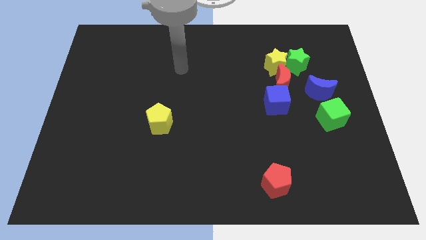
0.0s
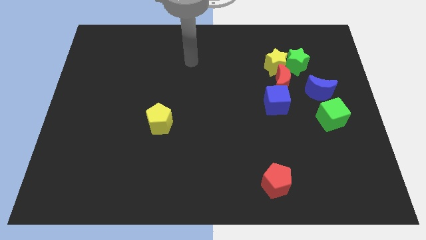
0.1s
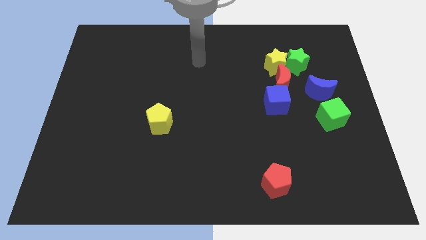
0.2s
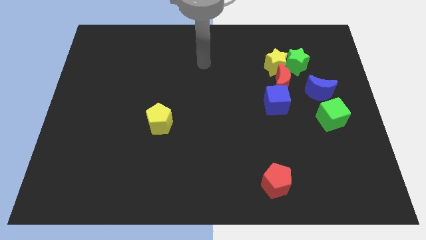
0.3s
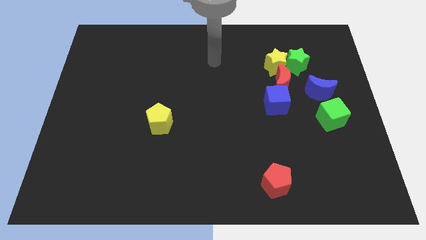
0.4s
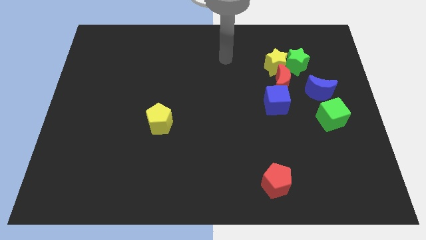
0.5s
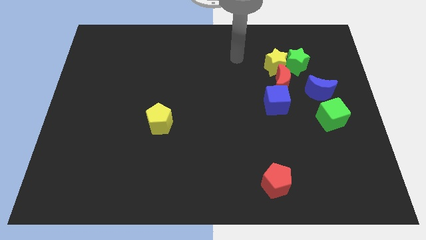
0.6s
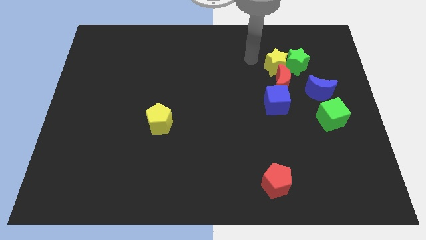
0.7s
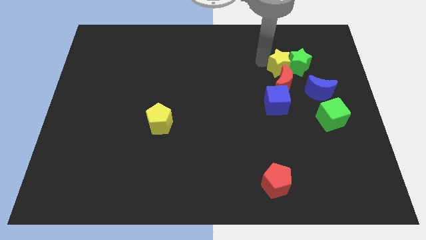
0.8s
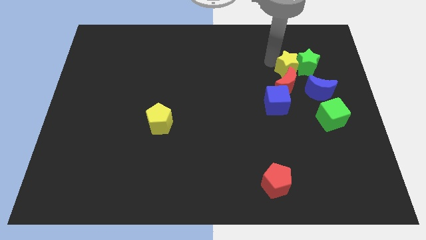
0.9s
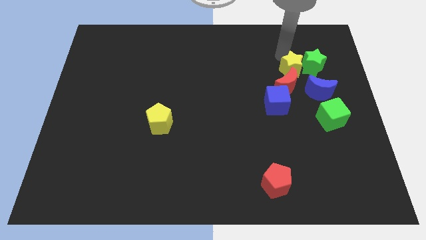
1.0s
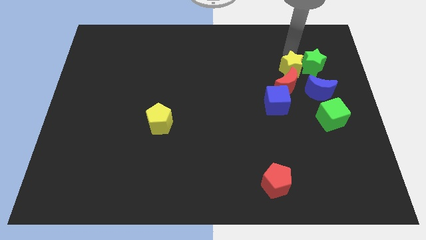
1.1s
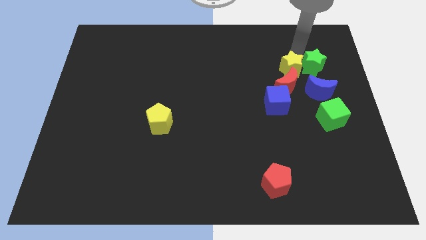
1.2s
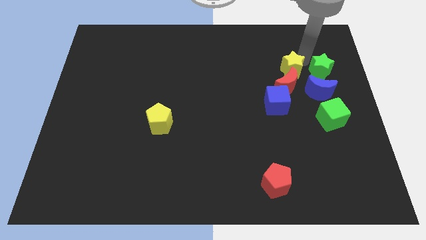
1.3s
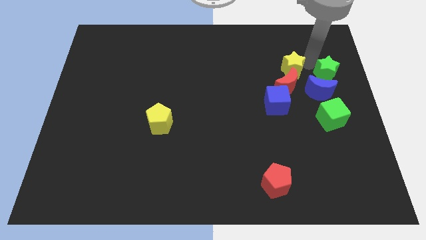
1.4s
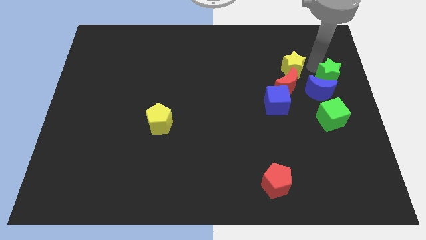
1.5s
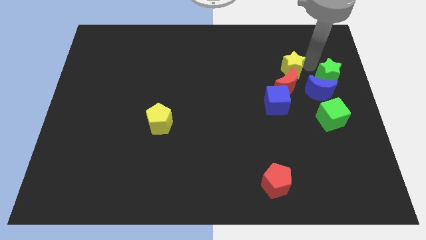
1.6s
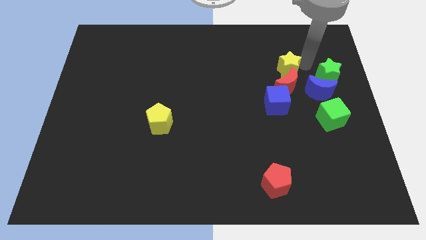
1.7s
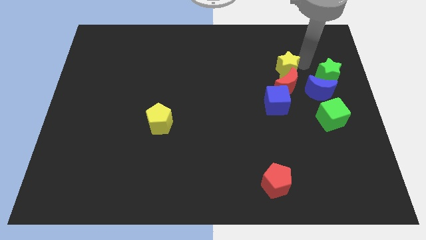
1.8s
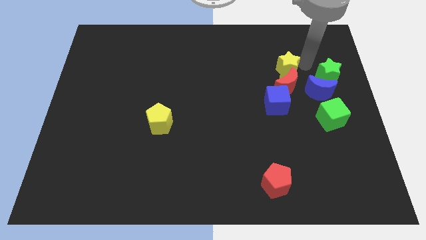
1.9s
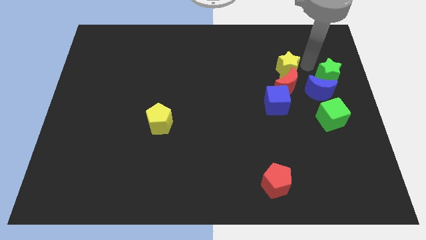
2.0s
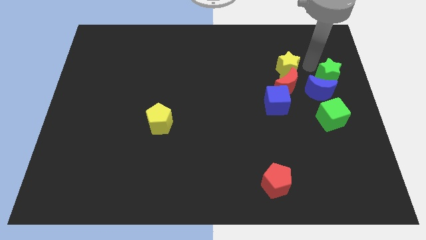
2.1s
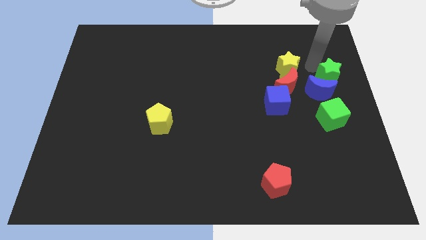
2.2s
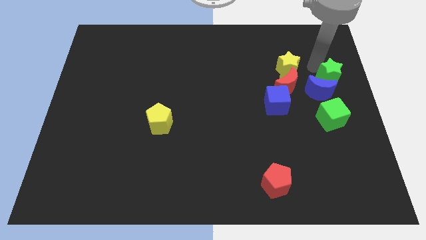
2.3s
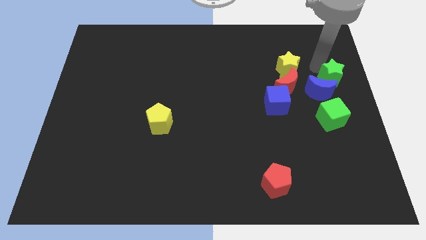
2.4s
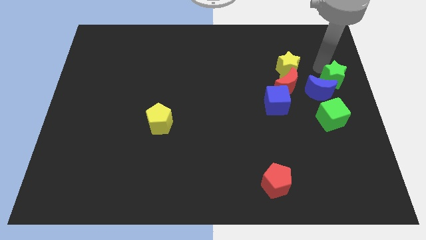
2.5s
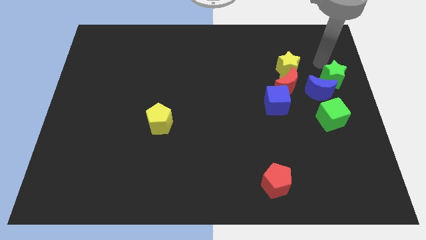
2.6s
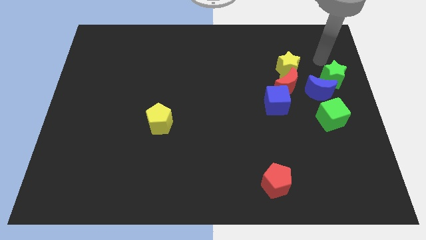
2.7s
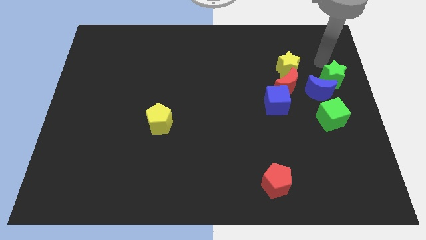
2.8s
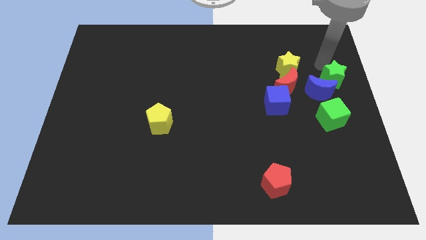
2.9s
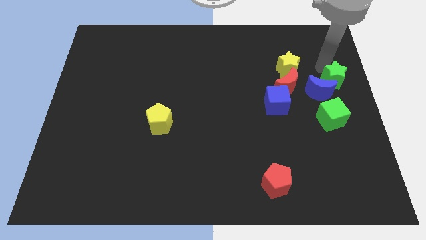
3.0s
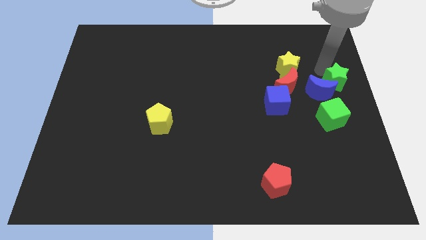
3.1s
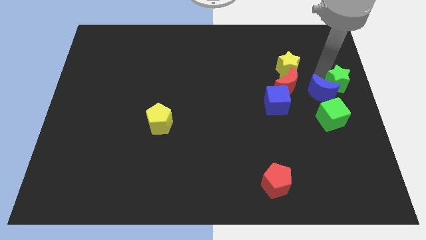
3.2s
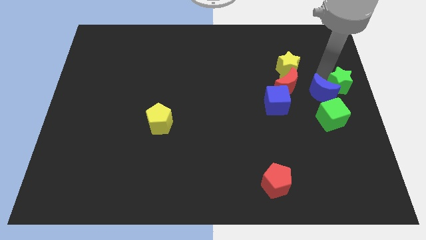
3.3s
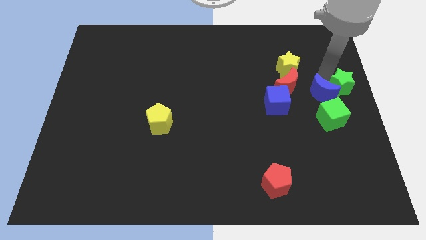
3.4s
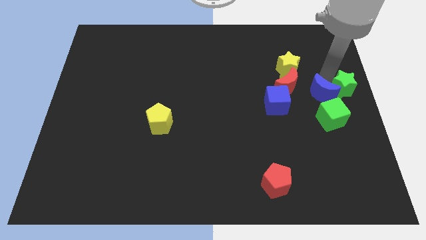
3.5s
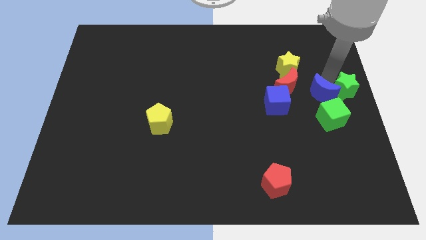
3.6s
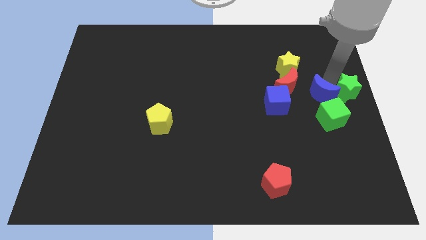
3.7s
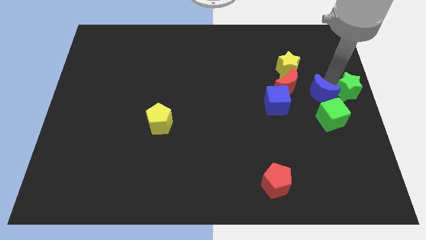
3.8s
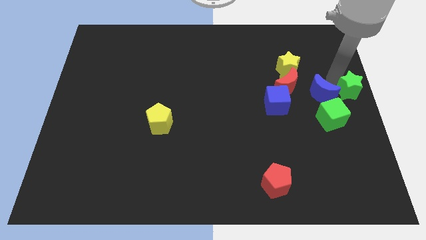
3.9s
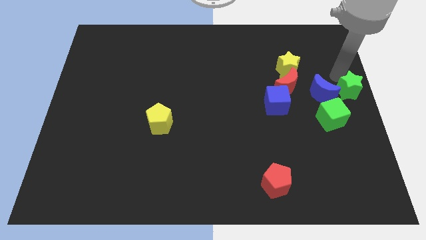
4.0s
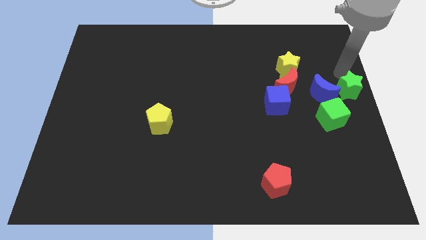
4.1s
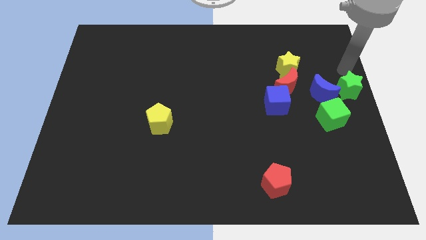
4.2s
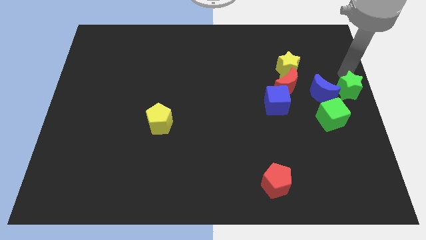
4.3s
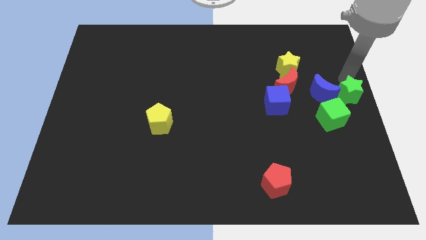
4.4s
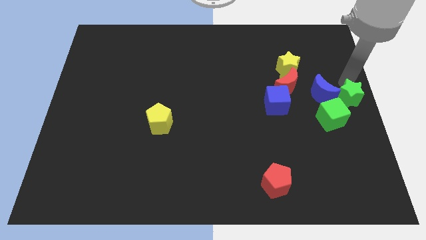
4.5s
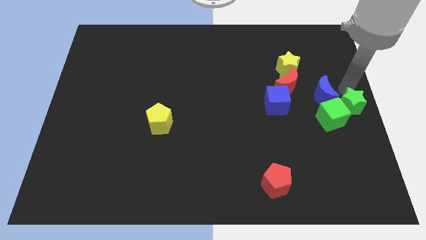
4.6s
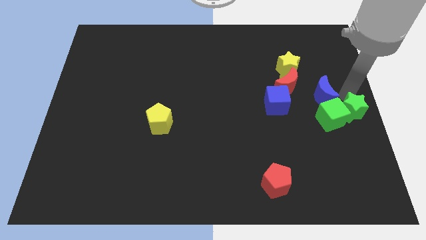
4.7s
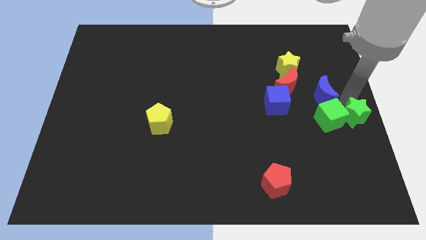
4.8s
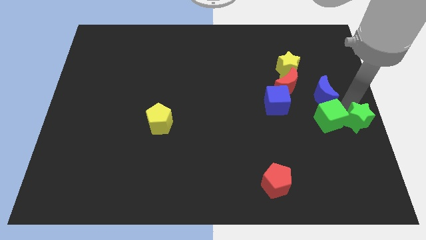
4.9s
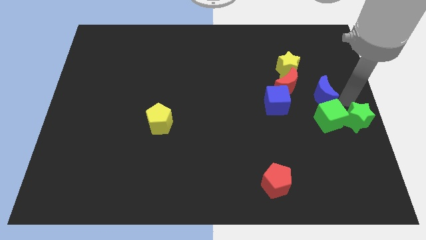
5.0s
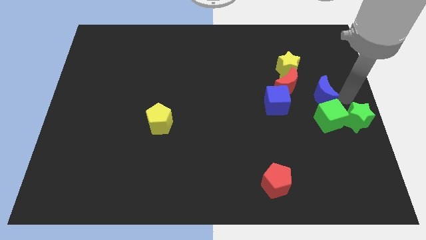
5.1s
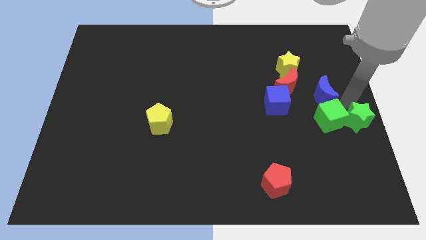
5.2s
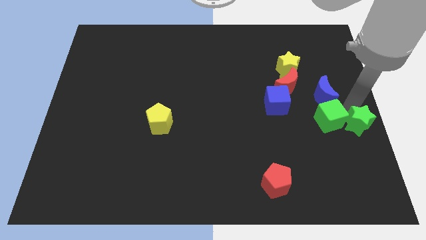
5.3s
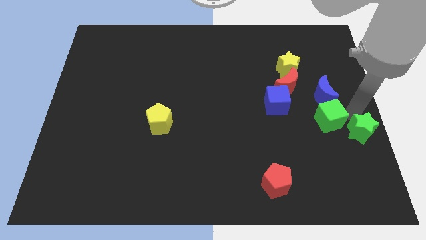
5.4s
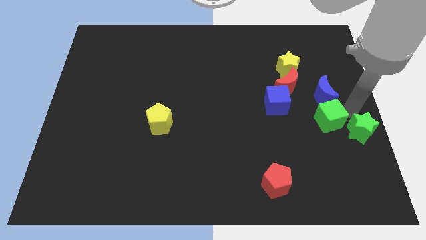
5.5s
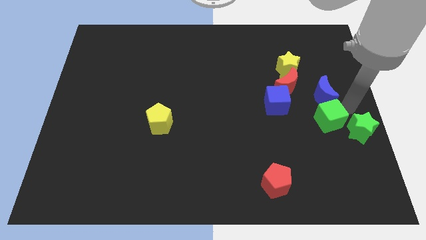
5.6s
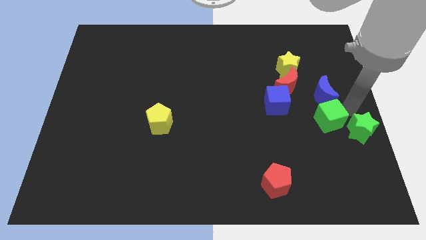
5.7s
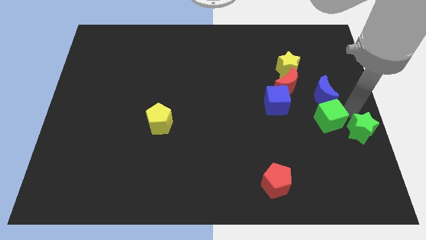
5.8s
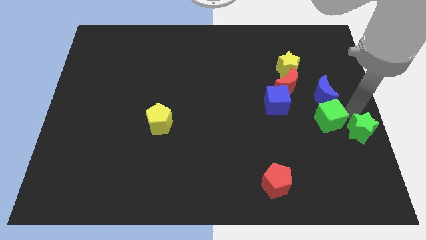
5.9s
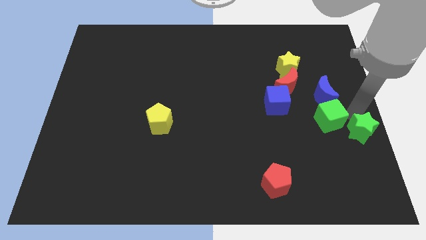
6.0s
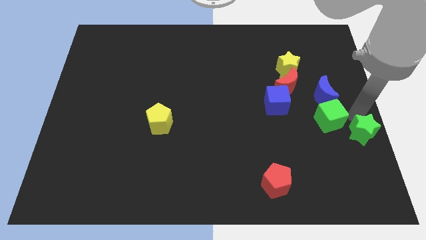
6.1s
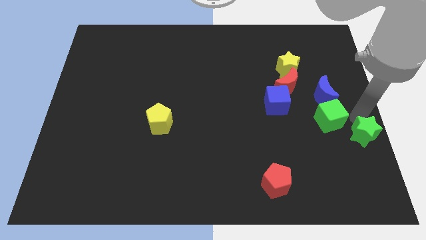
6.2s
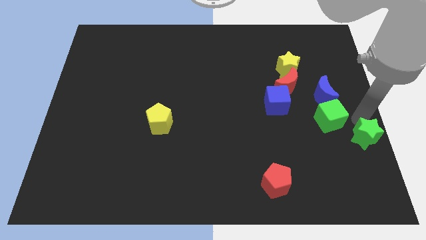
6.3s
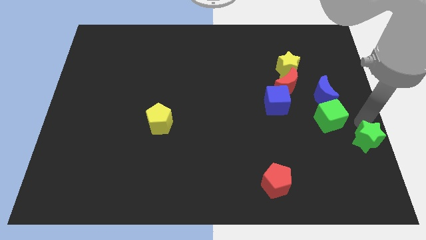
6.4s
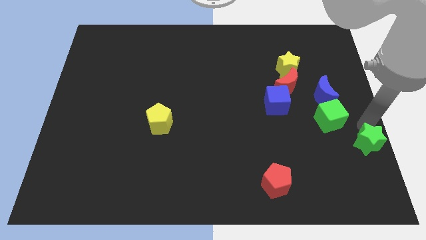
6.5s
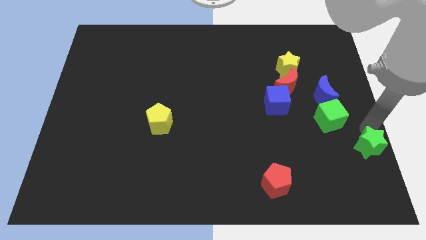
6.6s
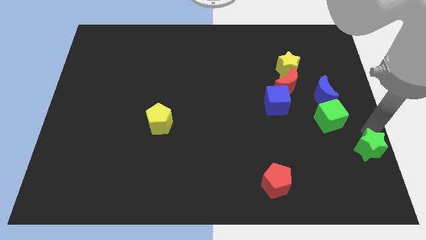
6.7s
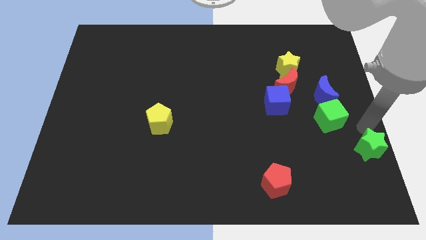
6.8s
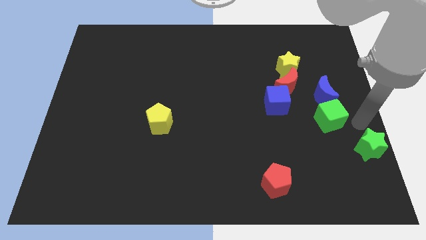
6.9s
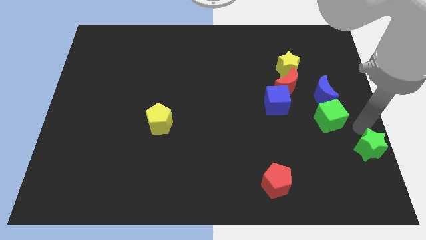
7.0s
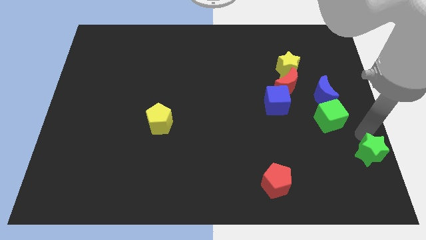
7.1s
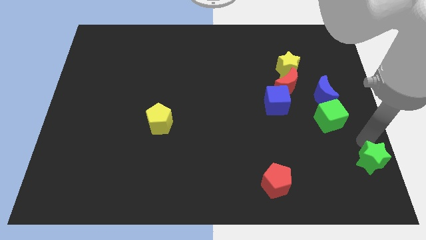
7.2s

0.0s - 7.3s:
slide the green star to the bottom right
